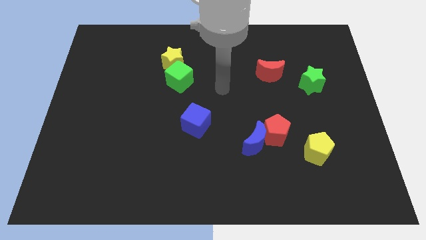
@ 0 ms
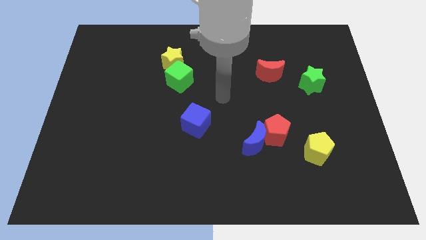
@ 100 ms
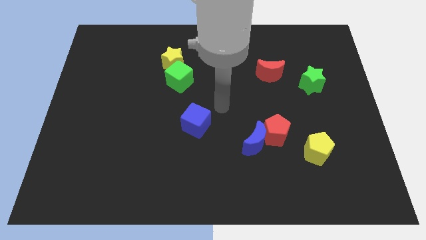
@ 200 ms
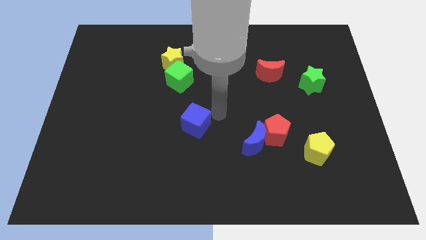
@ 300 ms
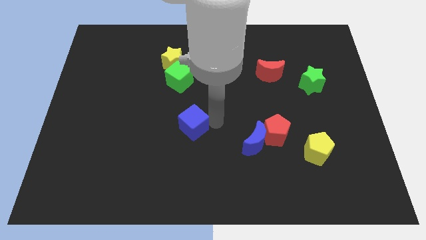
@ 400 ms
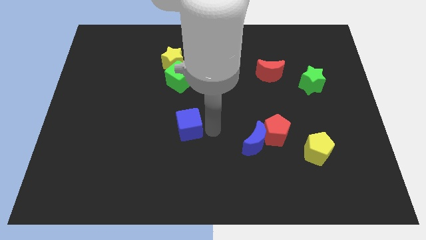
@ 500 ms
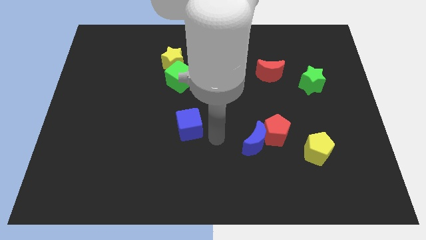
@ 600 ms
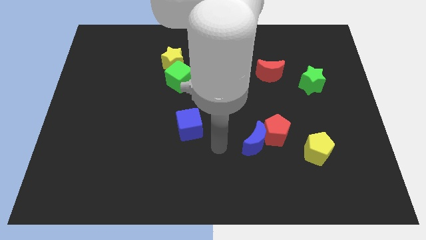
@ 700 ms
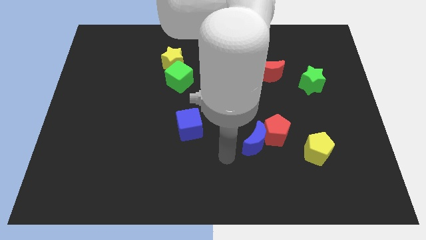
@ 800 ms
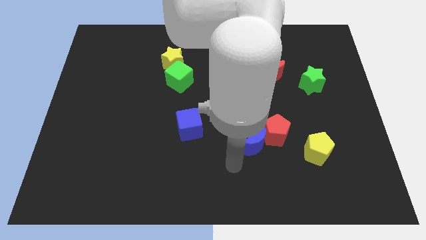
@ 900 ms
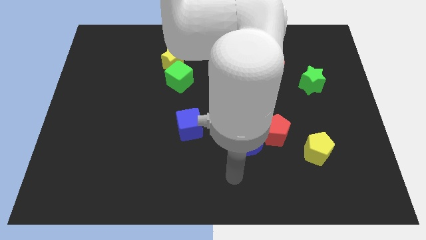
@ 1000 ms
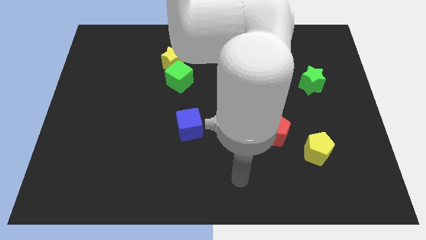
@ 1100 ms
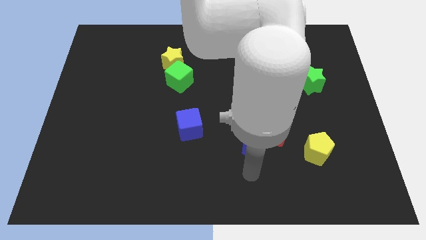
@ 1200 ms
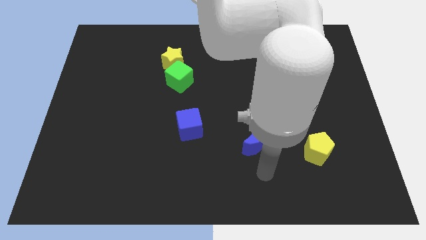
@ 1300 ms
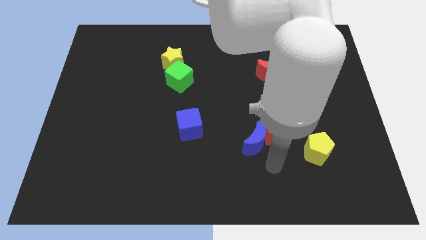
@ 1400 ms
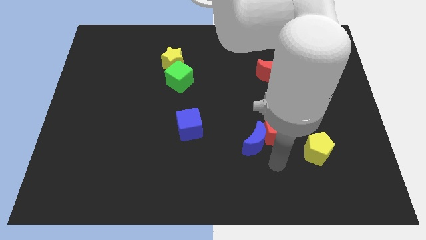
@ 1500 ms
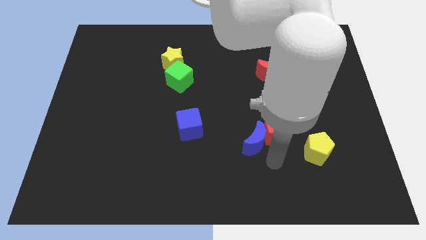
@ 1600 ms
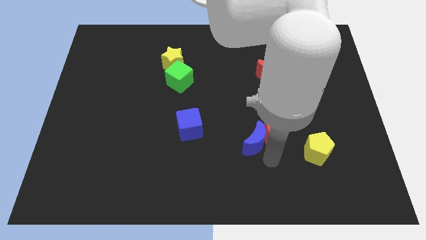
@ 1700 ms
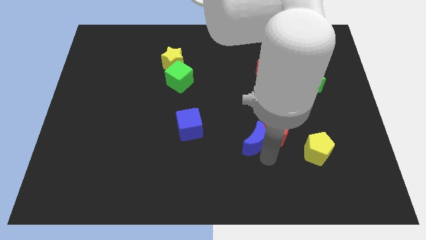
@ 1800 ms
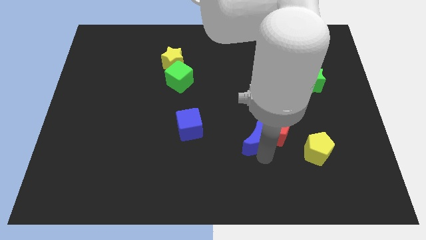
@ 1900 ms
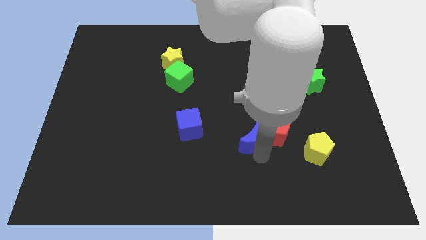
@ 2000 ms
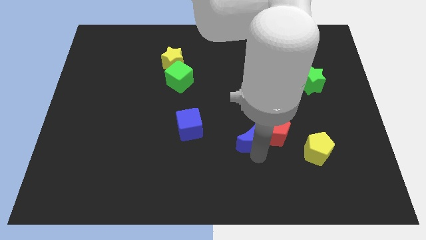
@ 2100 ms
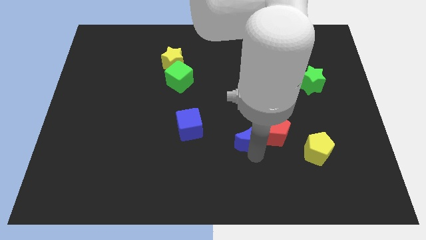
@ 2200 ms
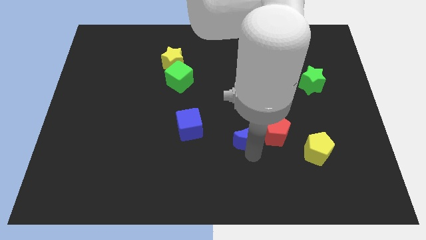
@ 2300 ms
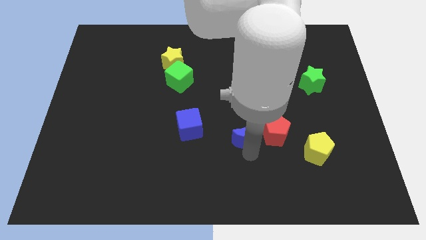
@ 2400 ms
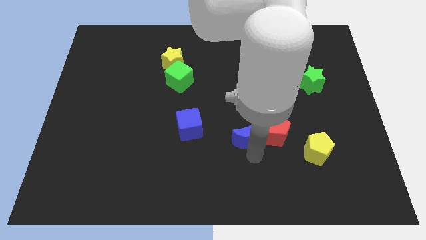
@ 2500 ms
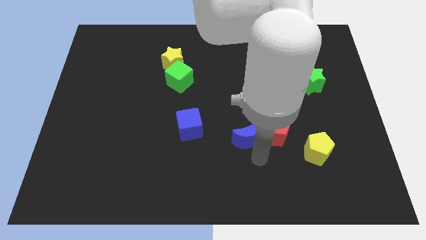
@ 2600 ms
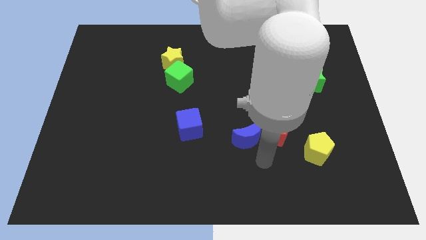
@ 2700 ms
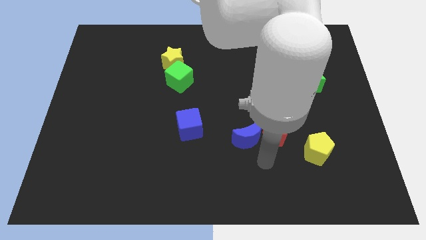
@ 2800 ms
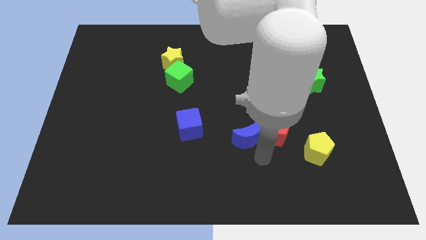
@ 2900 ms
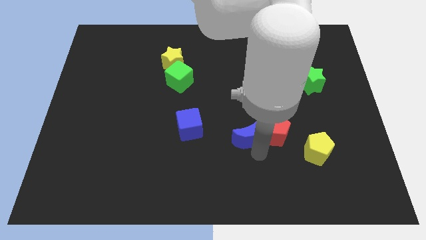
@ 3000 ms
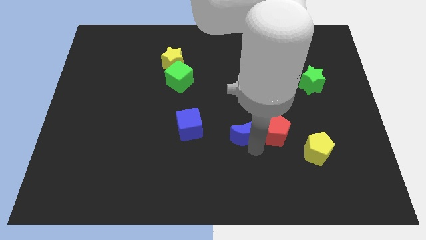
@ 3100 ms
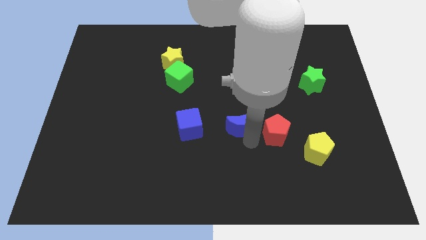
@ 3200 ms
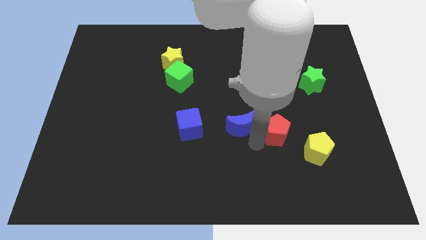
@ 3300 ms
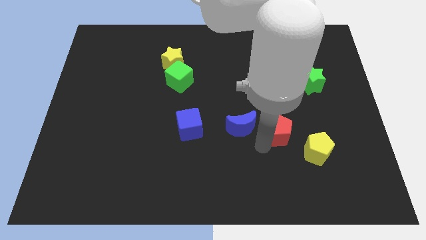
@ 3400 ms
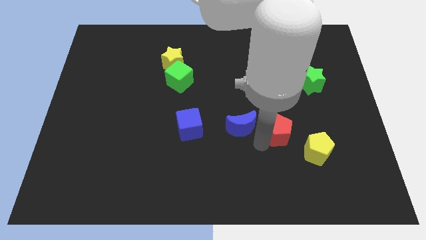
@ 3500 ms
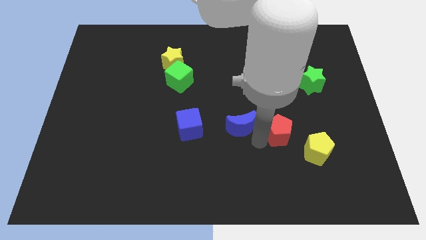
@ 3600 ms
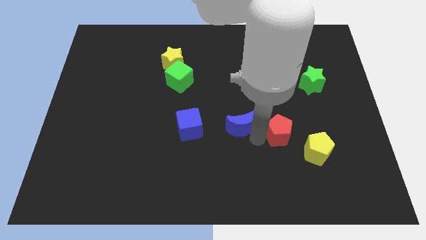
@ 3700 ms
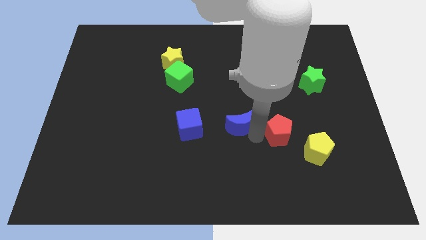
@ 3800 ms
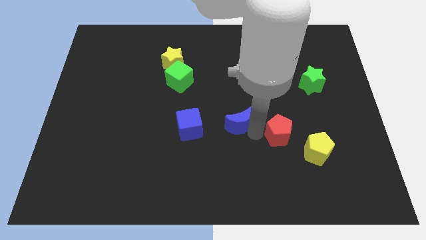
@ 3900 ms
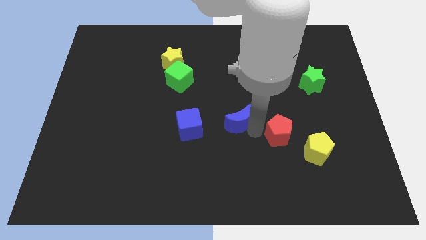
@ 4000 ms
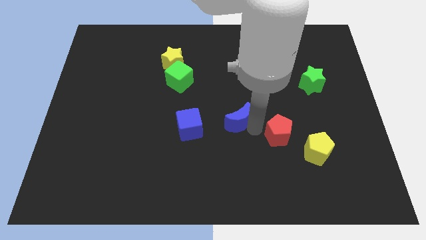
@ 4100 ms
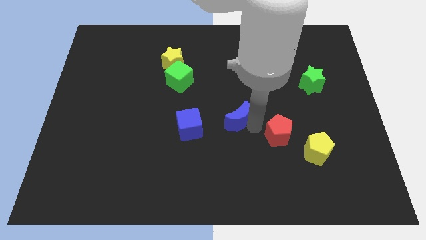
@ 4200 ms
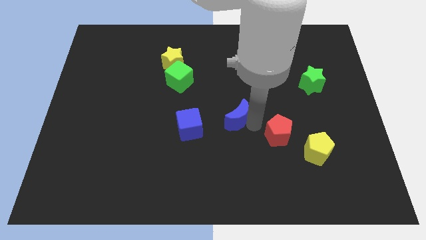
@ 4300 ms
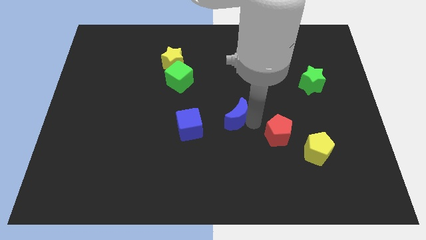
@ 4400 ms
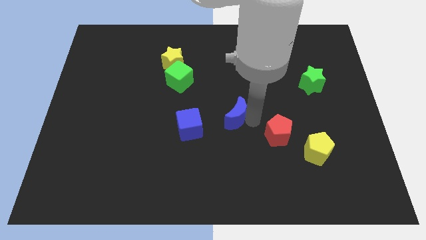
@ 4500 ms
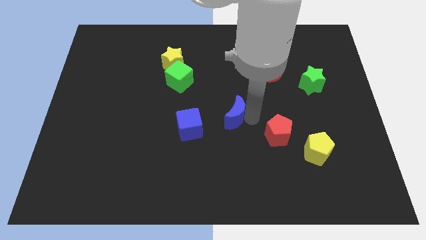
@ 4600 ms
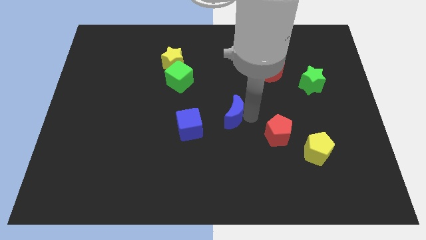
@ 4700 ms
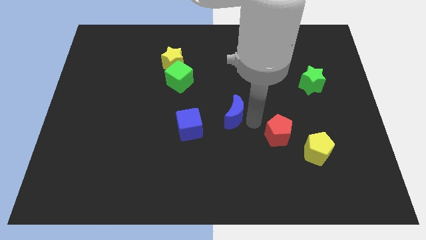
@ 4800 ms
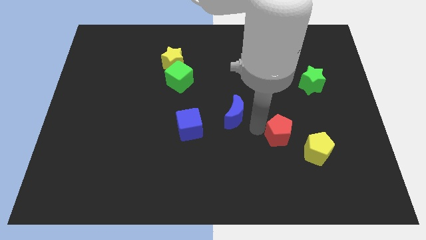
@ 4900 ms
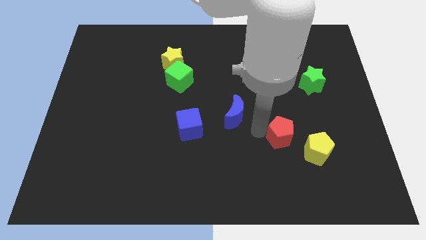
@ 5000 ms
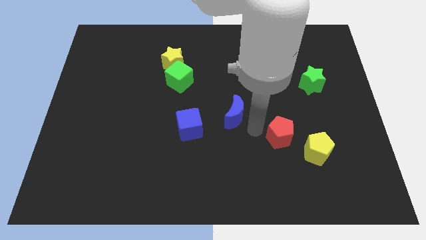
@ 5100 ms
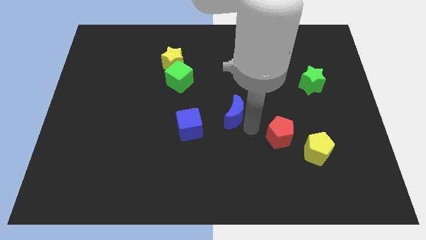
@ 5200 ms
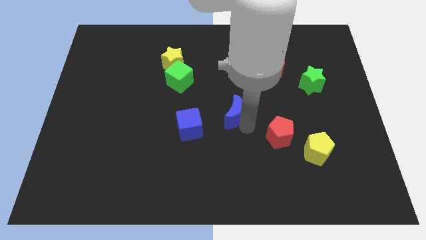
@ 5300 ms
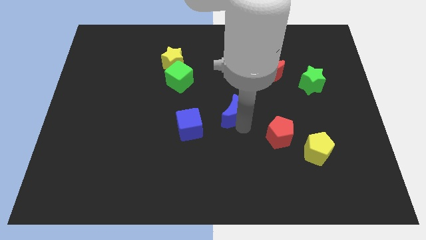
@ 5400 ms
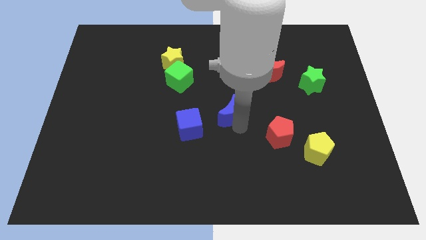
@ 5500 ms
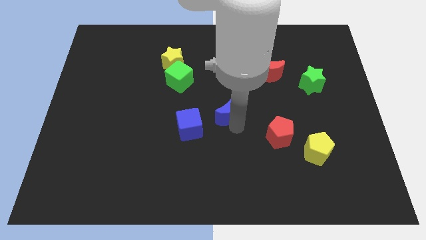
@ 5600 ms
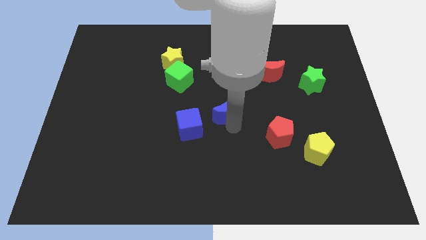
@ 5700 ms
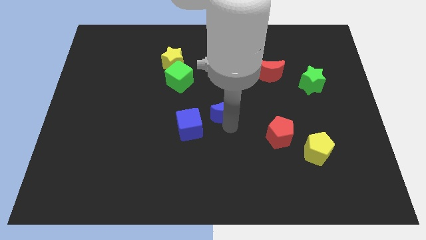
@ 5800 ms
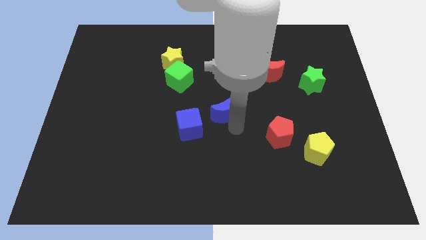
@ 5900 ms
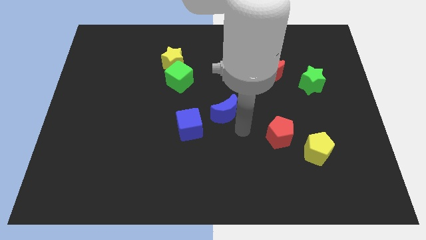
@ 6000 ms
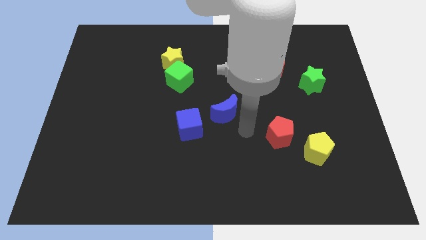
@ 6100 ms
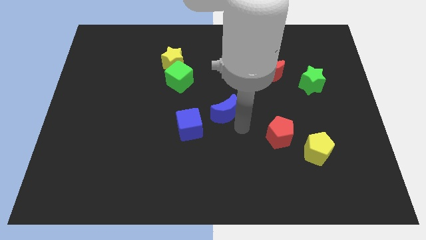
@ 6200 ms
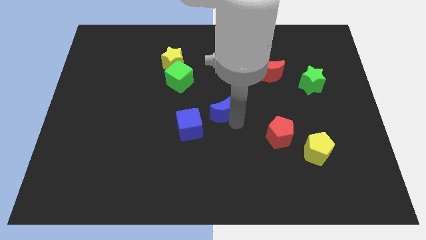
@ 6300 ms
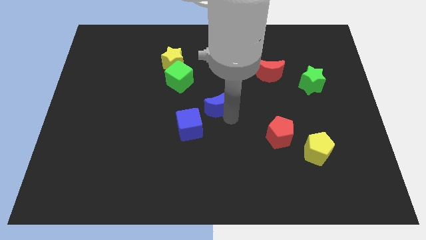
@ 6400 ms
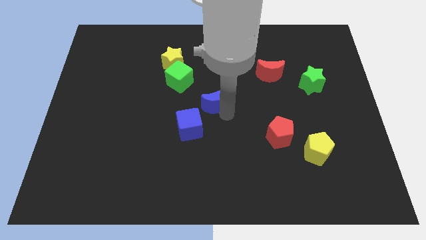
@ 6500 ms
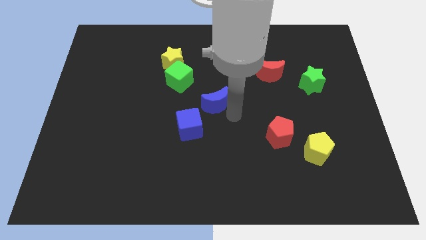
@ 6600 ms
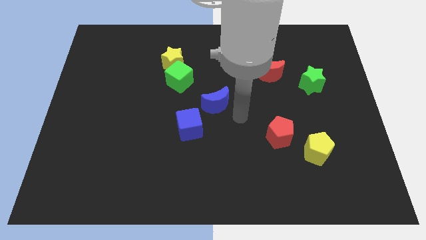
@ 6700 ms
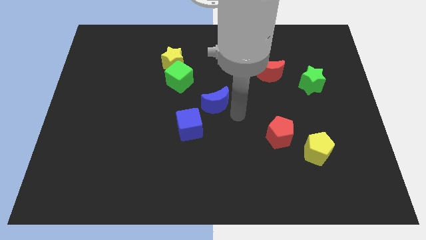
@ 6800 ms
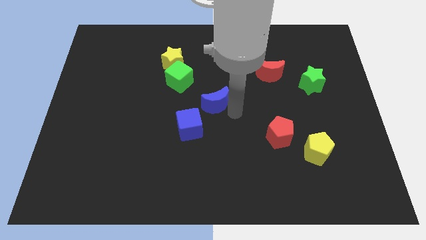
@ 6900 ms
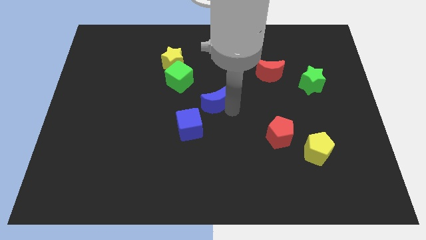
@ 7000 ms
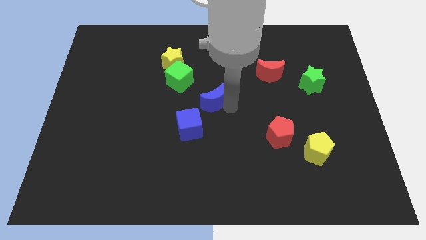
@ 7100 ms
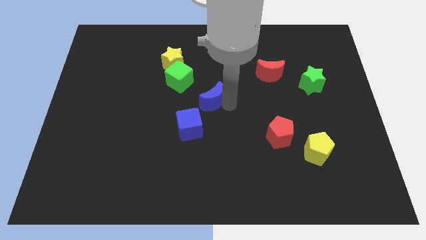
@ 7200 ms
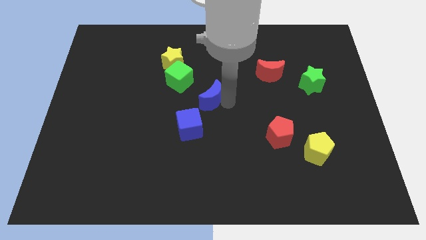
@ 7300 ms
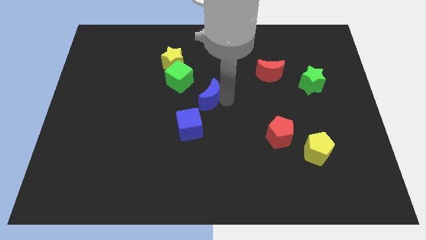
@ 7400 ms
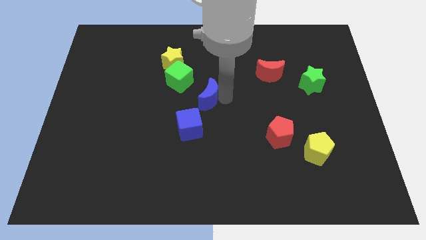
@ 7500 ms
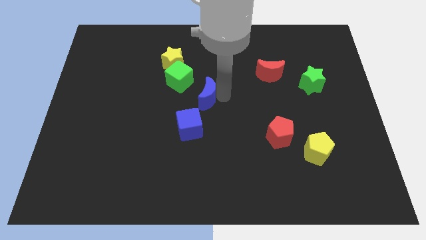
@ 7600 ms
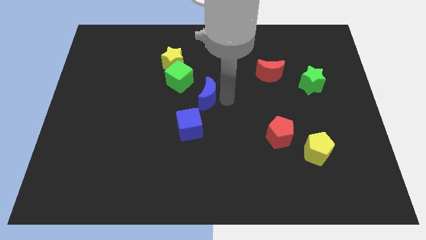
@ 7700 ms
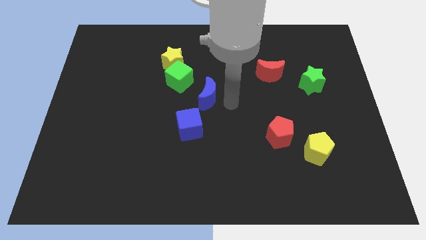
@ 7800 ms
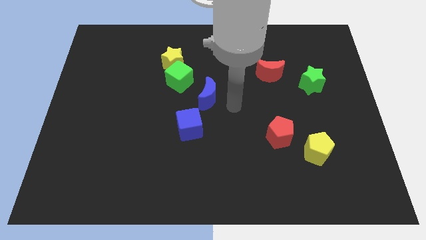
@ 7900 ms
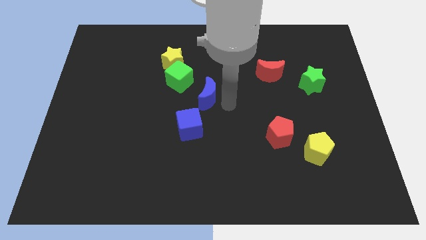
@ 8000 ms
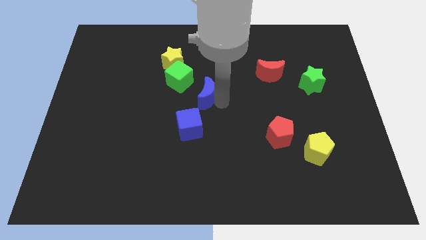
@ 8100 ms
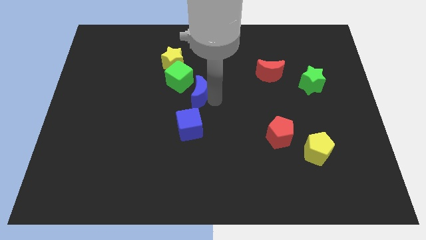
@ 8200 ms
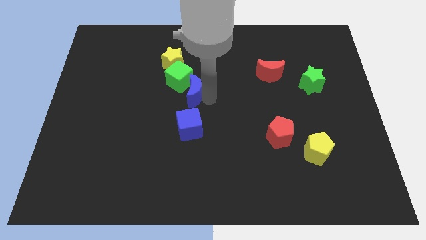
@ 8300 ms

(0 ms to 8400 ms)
slide the blue moon next to the green cube
